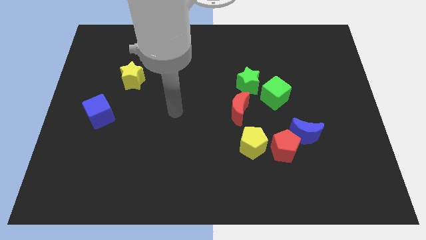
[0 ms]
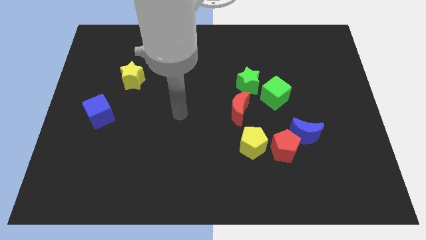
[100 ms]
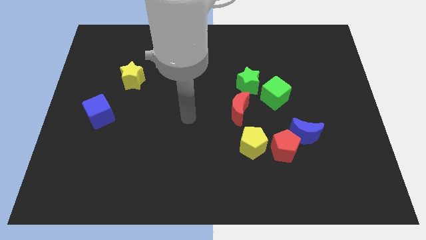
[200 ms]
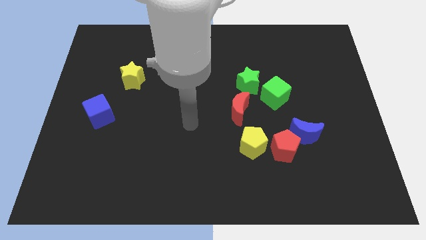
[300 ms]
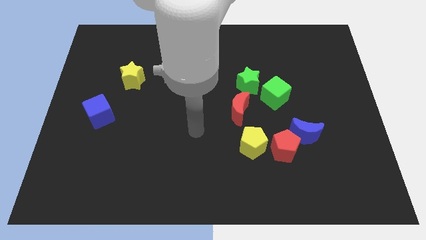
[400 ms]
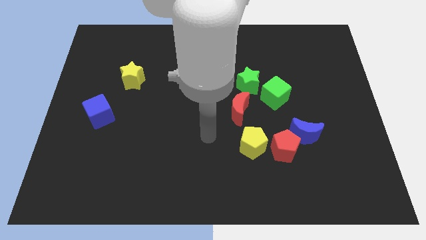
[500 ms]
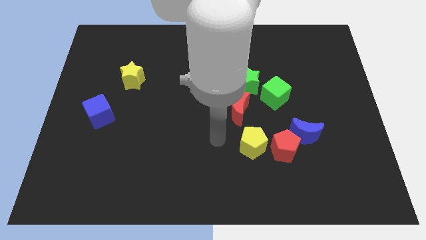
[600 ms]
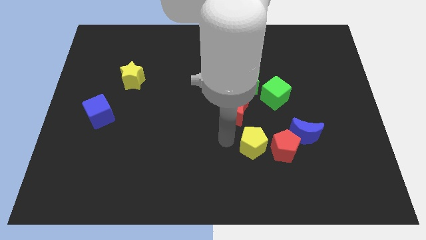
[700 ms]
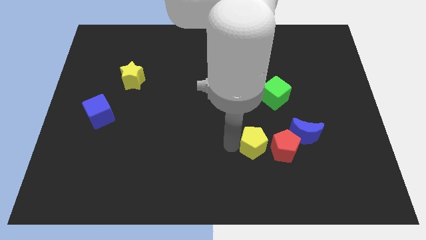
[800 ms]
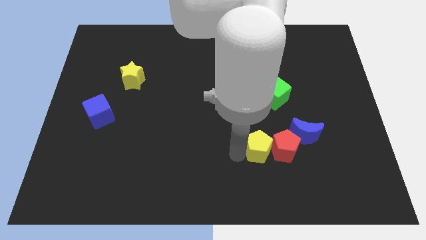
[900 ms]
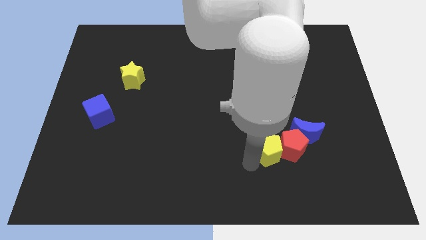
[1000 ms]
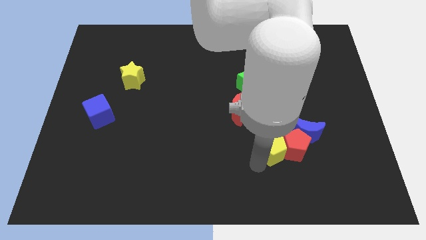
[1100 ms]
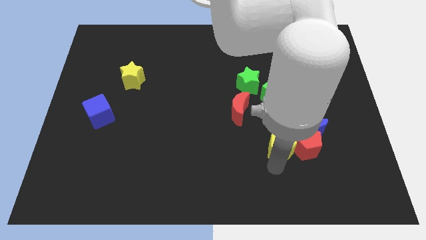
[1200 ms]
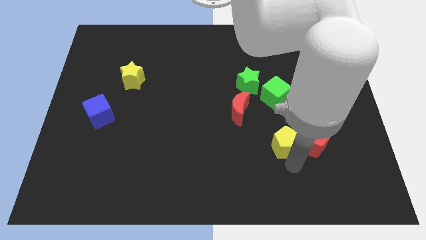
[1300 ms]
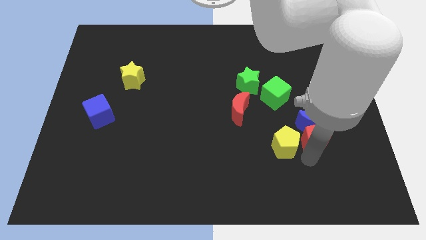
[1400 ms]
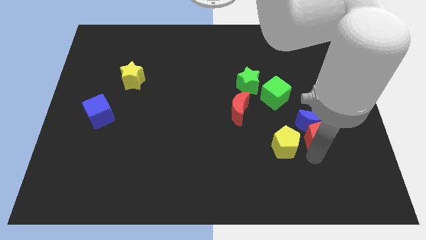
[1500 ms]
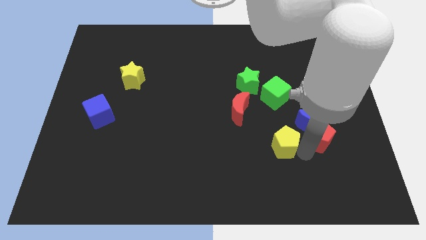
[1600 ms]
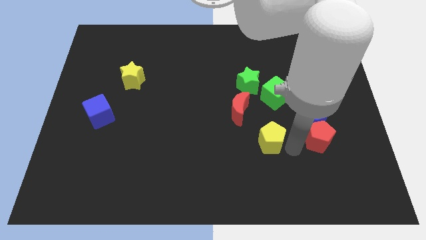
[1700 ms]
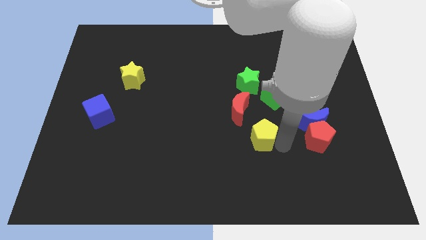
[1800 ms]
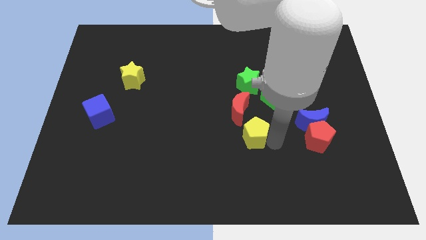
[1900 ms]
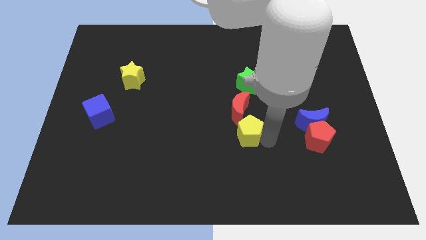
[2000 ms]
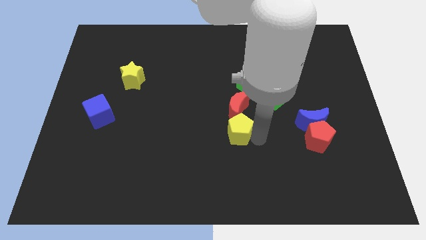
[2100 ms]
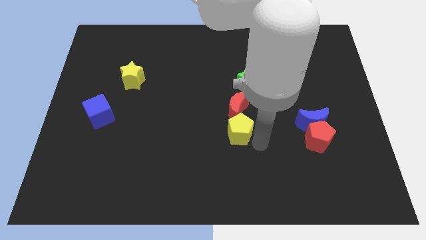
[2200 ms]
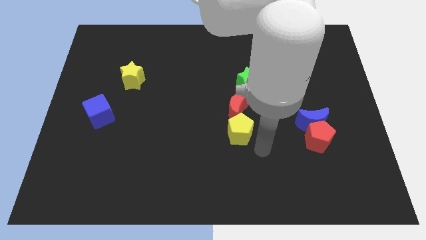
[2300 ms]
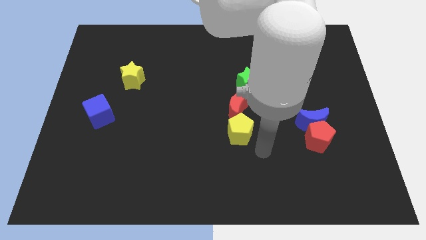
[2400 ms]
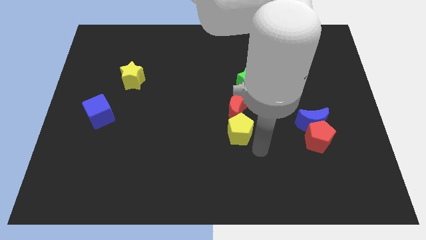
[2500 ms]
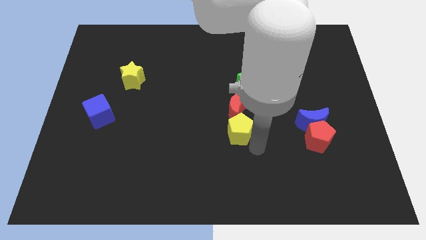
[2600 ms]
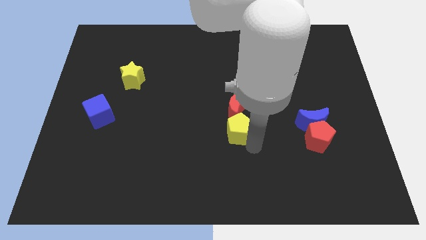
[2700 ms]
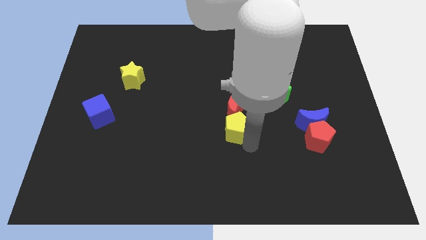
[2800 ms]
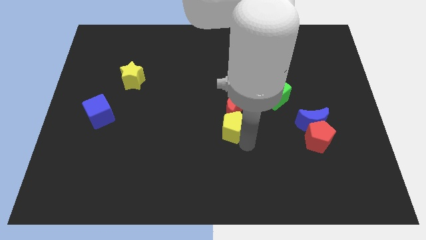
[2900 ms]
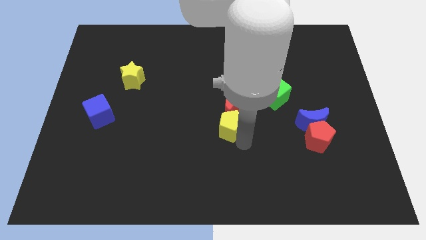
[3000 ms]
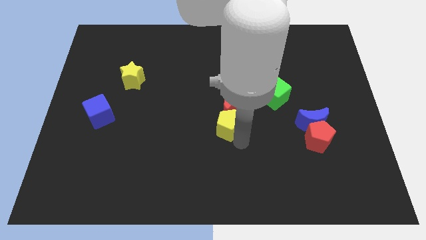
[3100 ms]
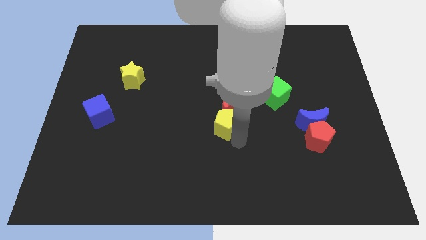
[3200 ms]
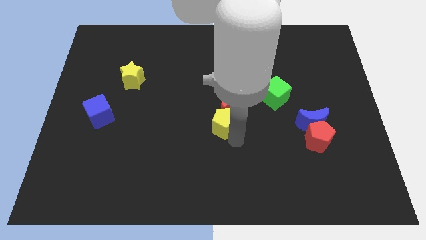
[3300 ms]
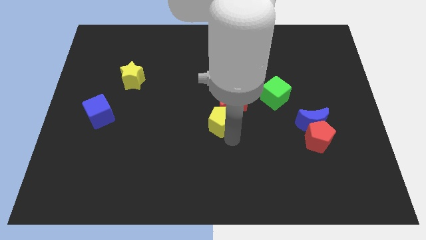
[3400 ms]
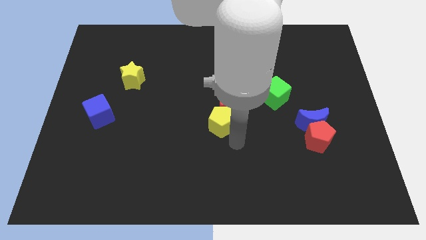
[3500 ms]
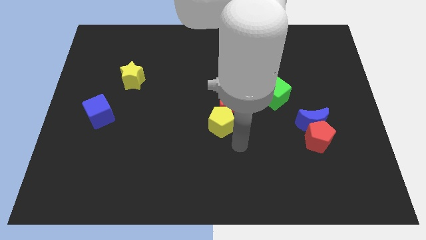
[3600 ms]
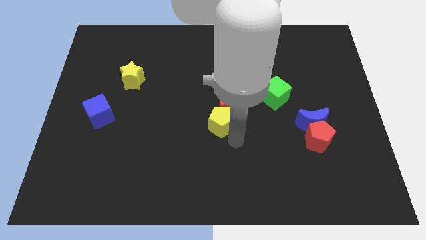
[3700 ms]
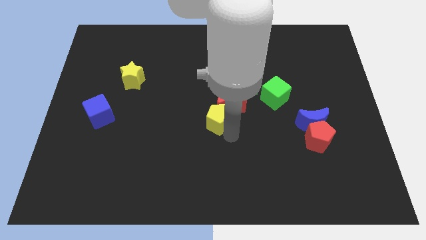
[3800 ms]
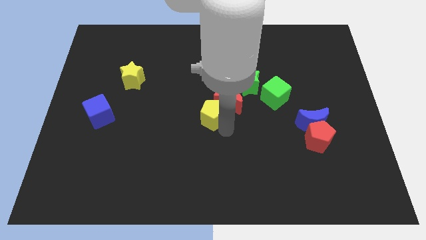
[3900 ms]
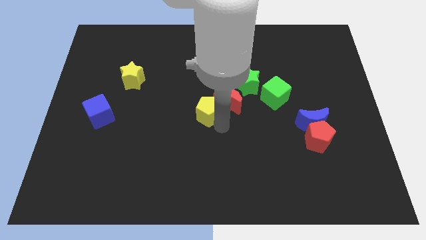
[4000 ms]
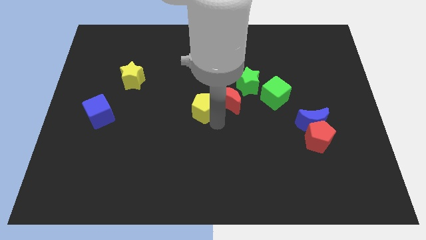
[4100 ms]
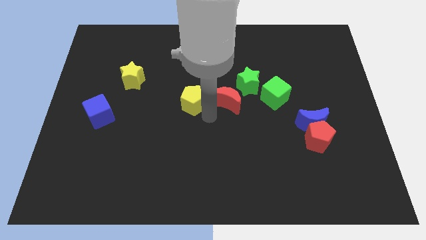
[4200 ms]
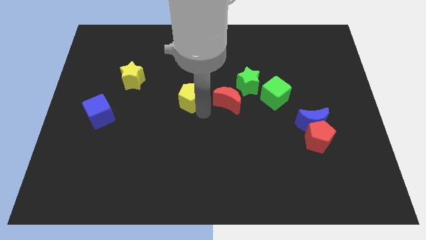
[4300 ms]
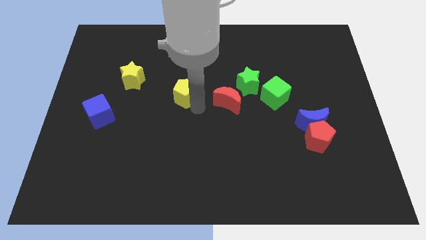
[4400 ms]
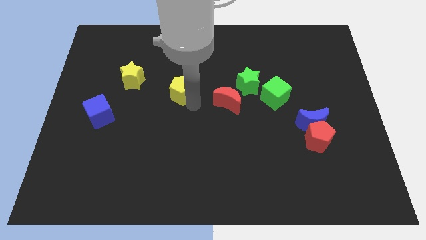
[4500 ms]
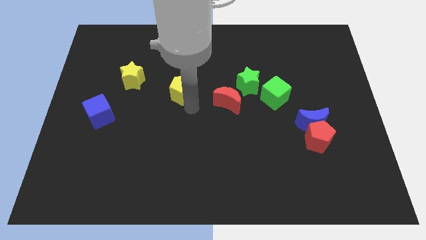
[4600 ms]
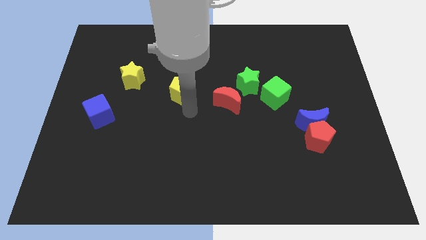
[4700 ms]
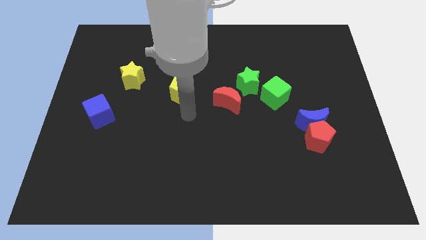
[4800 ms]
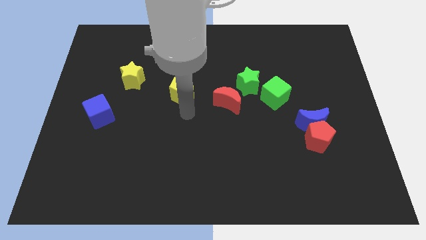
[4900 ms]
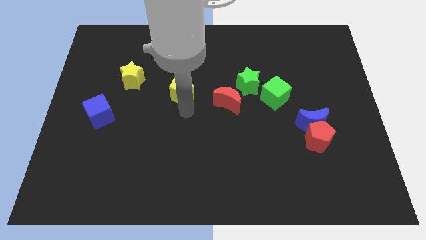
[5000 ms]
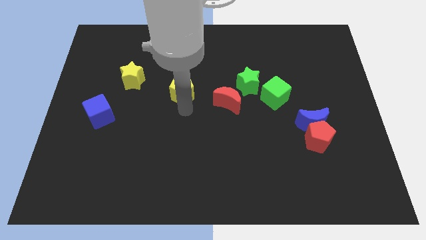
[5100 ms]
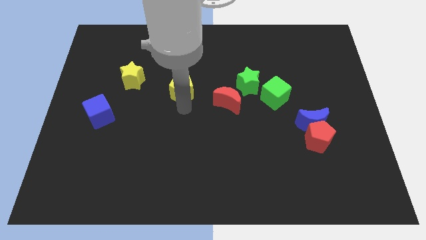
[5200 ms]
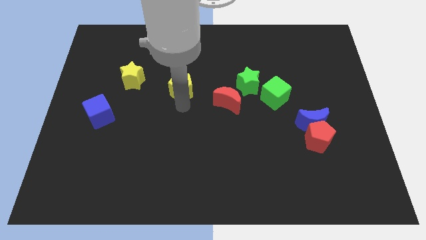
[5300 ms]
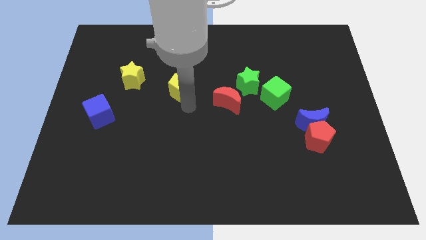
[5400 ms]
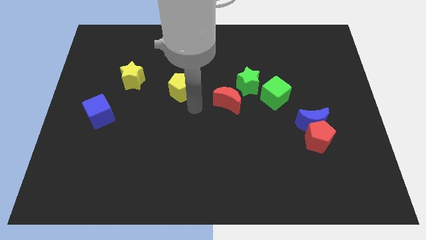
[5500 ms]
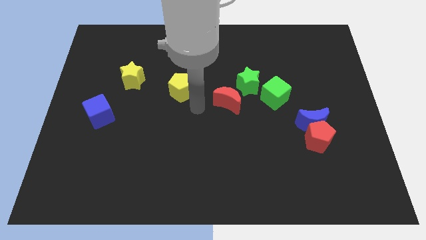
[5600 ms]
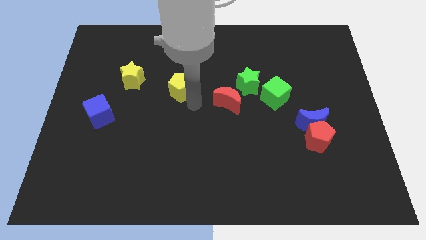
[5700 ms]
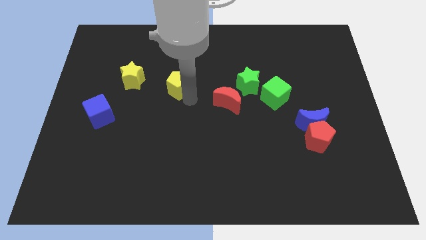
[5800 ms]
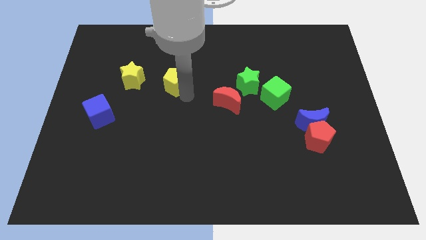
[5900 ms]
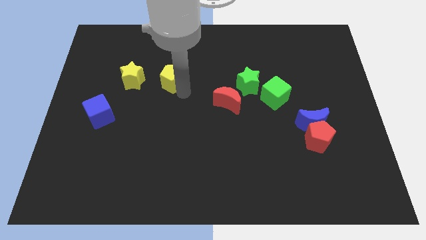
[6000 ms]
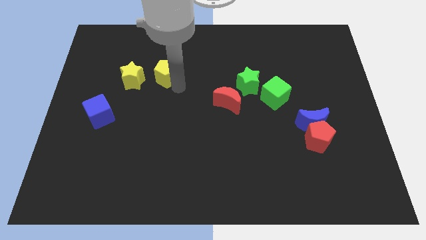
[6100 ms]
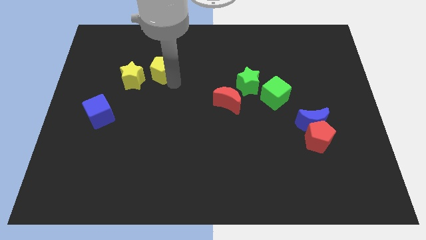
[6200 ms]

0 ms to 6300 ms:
move the yellow pentagon diagonally up and to the right of the yellow star
